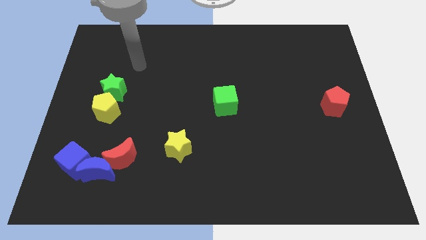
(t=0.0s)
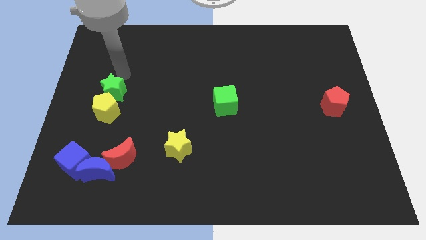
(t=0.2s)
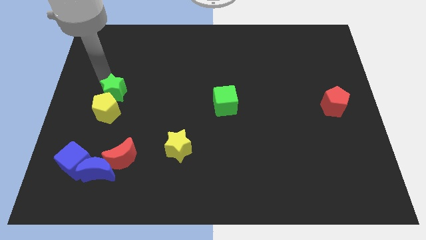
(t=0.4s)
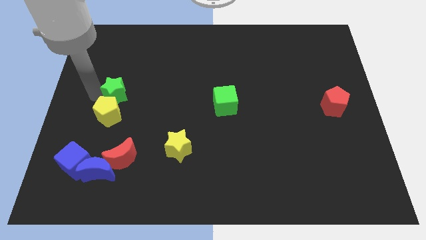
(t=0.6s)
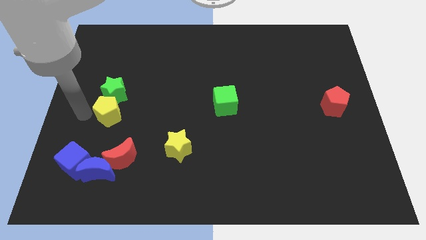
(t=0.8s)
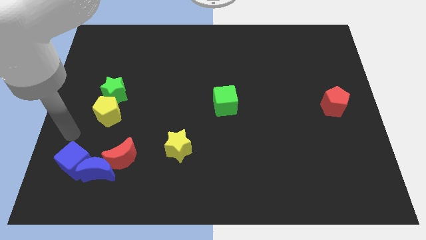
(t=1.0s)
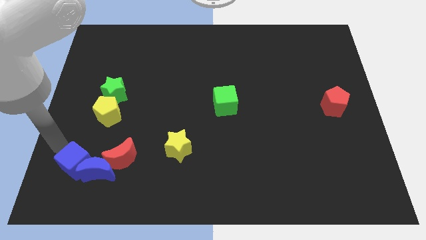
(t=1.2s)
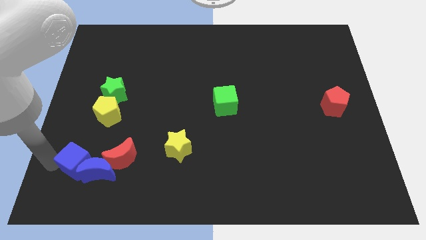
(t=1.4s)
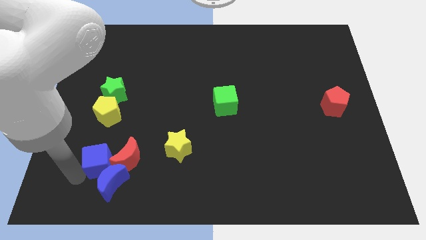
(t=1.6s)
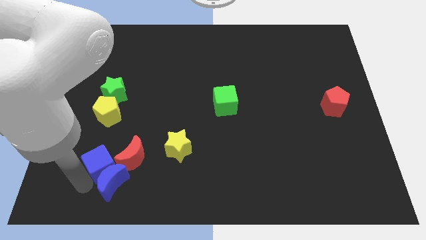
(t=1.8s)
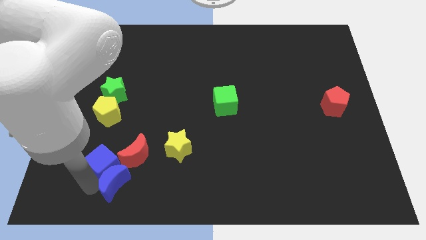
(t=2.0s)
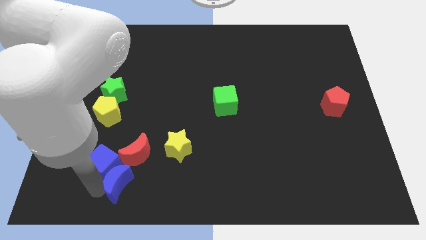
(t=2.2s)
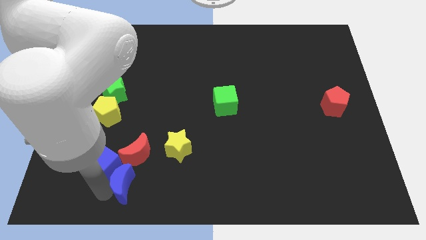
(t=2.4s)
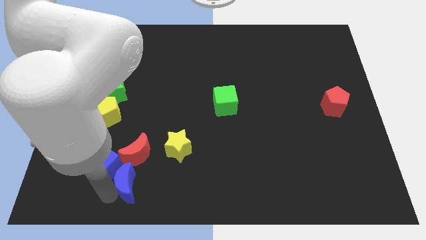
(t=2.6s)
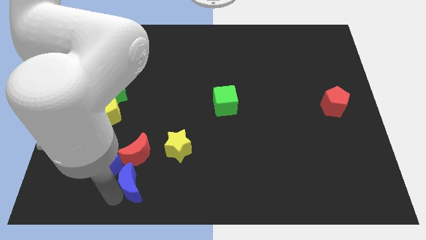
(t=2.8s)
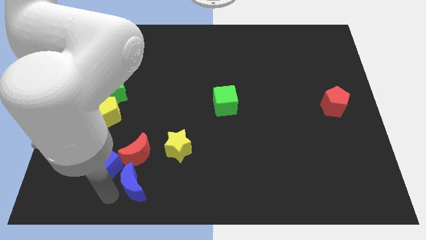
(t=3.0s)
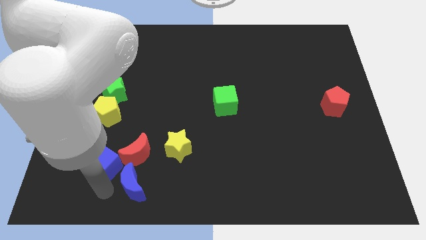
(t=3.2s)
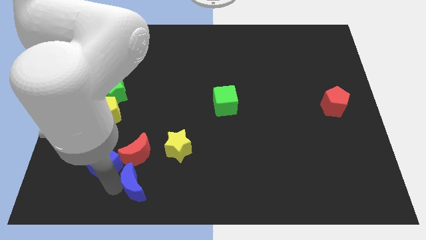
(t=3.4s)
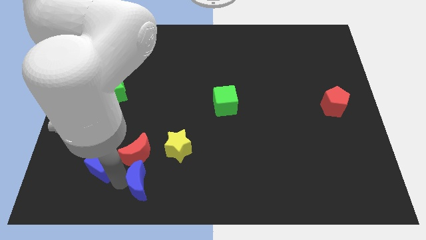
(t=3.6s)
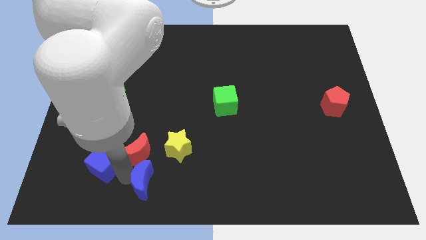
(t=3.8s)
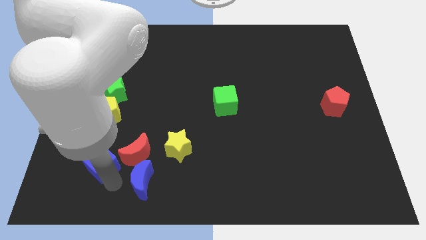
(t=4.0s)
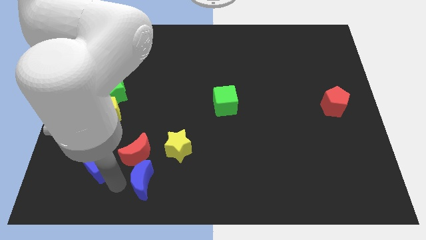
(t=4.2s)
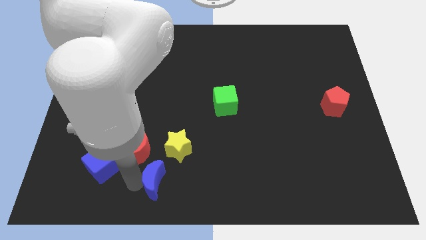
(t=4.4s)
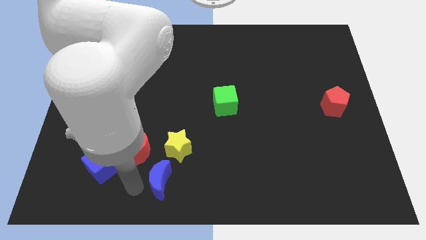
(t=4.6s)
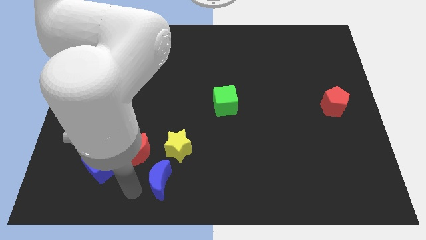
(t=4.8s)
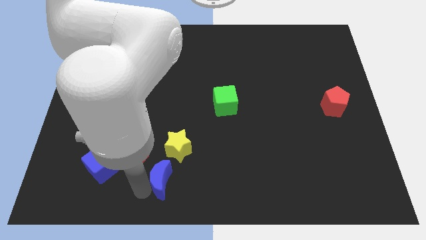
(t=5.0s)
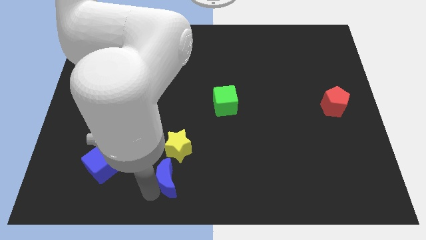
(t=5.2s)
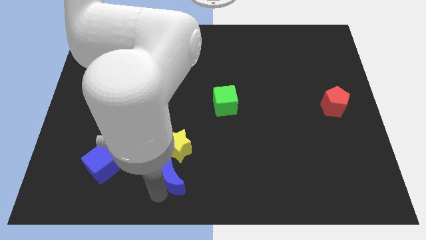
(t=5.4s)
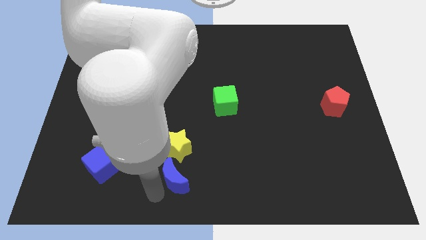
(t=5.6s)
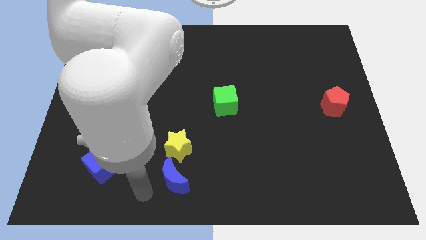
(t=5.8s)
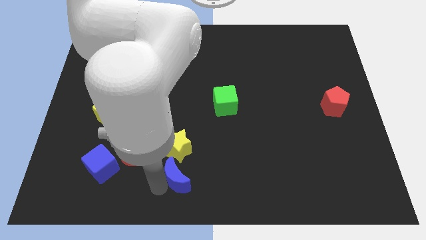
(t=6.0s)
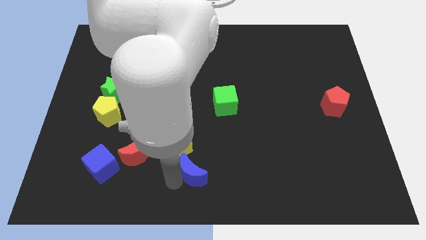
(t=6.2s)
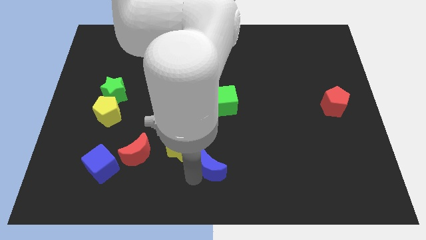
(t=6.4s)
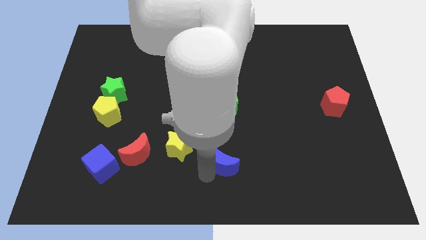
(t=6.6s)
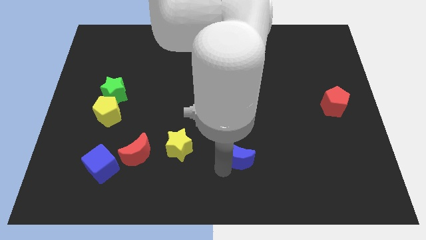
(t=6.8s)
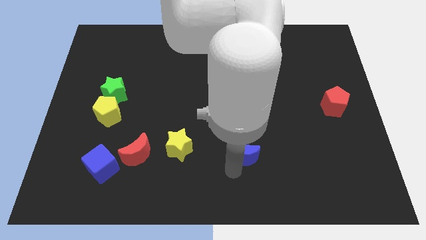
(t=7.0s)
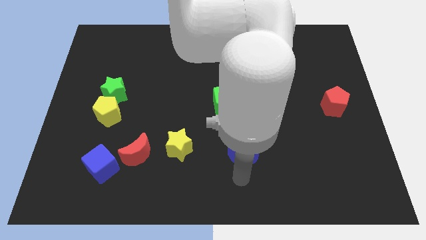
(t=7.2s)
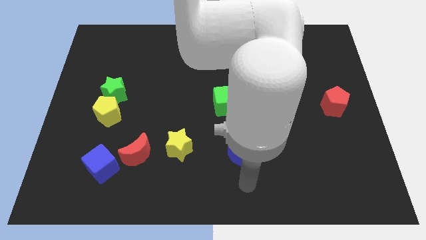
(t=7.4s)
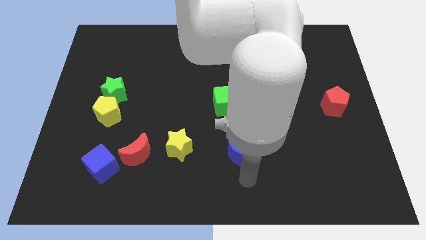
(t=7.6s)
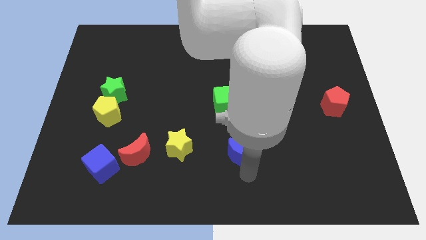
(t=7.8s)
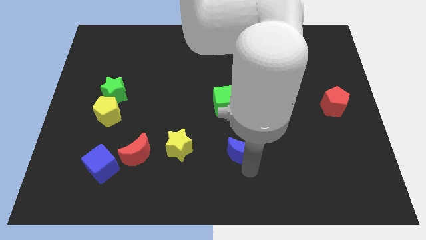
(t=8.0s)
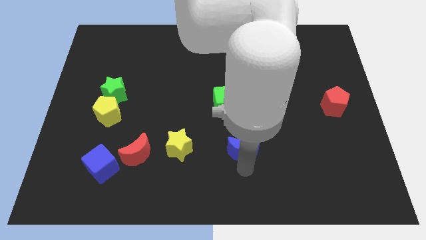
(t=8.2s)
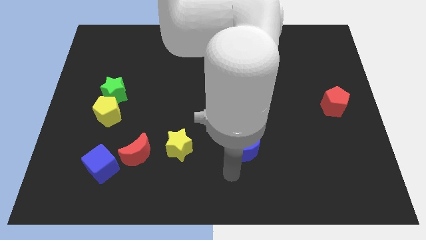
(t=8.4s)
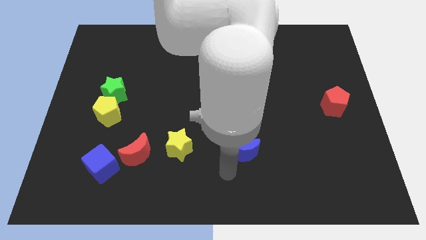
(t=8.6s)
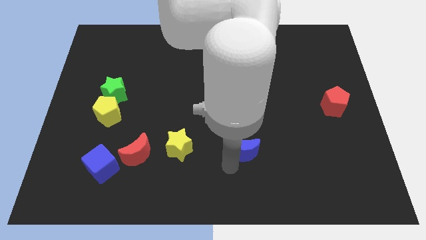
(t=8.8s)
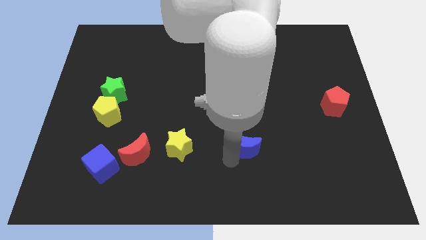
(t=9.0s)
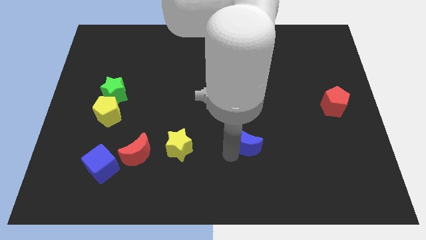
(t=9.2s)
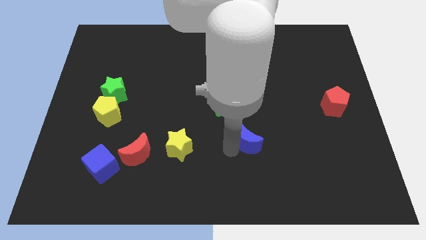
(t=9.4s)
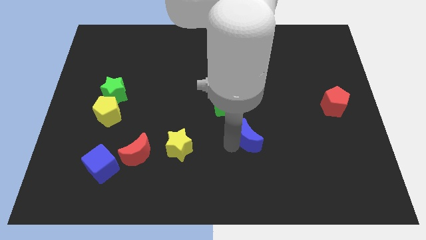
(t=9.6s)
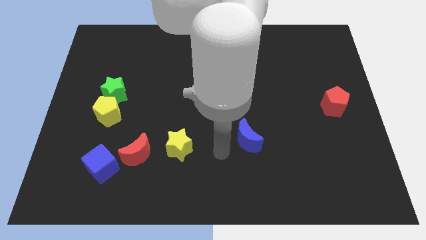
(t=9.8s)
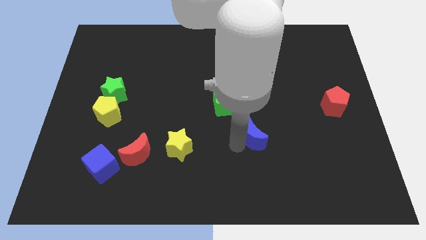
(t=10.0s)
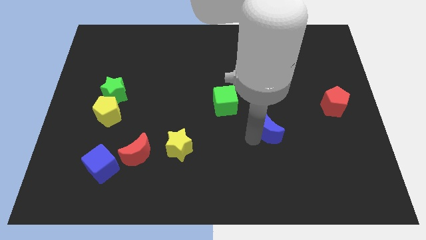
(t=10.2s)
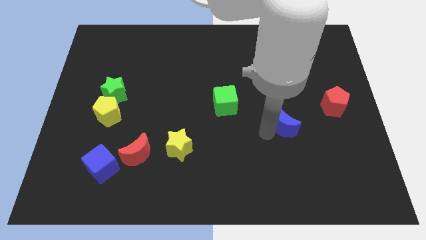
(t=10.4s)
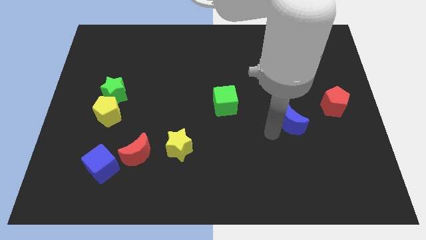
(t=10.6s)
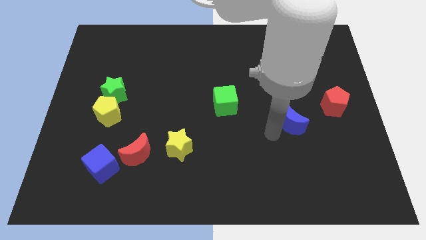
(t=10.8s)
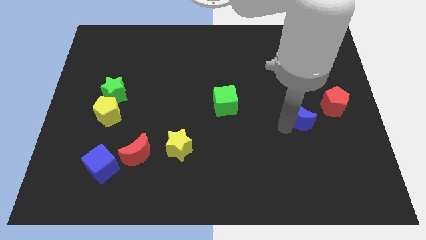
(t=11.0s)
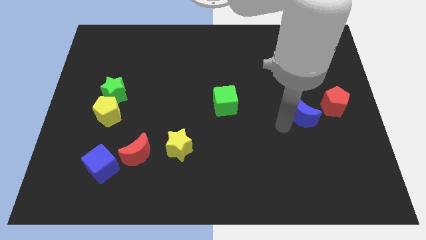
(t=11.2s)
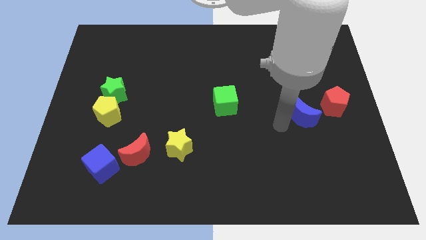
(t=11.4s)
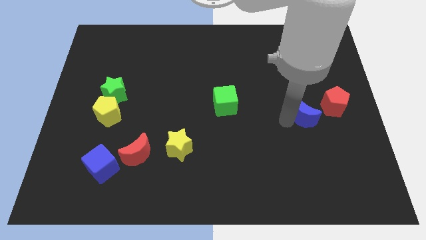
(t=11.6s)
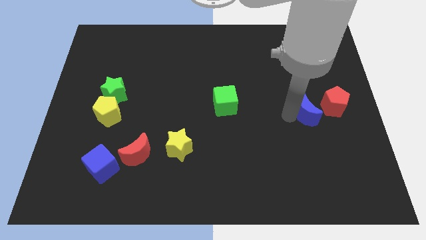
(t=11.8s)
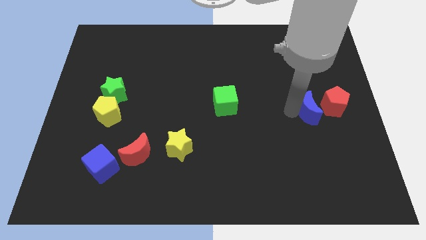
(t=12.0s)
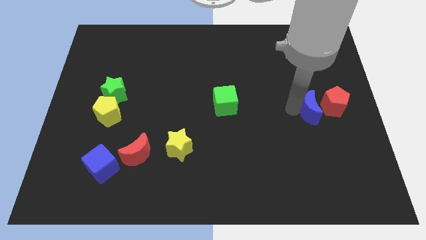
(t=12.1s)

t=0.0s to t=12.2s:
move the blue moon towards the red pentagon

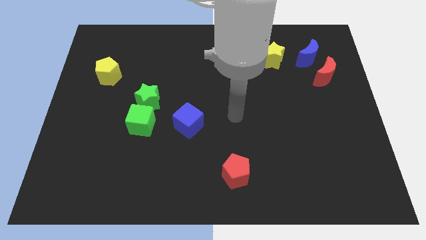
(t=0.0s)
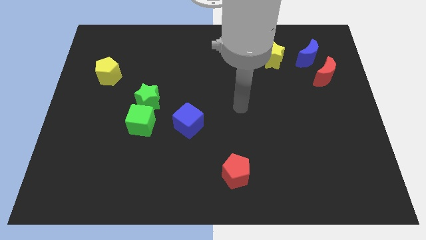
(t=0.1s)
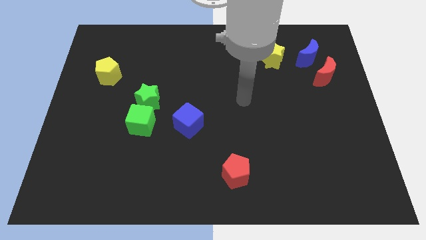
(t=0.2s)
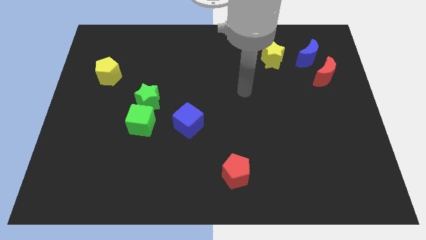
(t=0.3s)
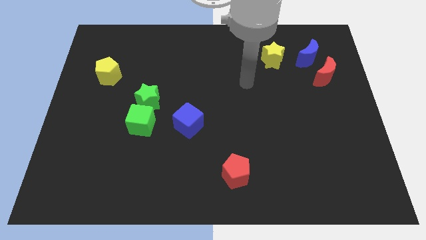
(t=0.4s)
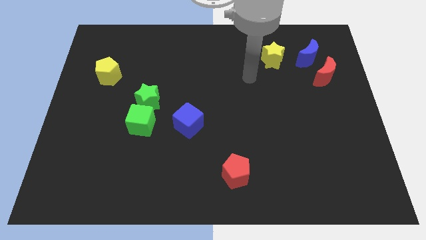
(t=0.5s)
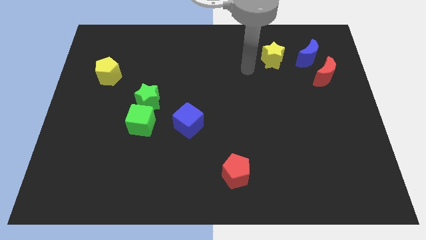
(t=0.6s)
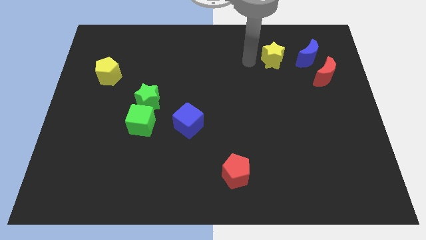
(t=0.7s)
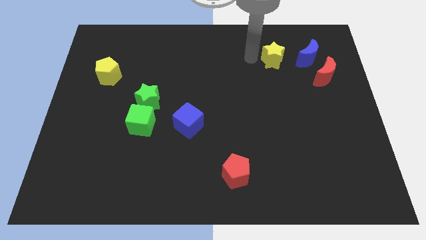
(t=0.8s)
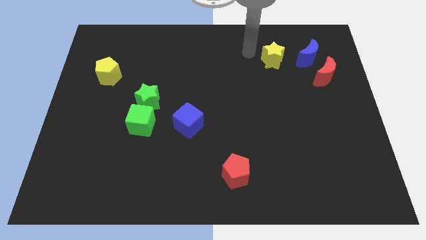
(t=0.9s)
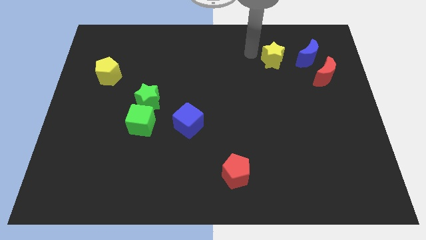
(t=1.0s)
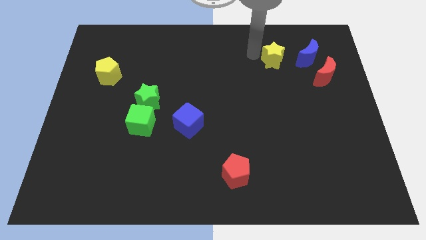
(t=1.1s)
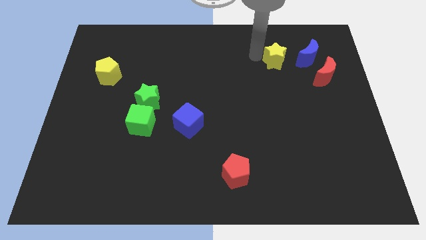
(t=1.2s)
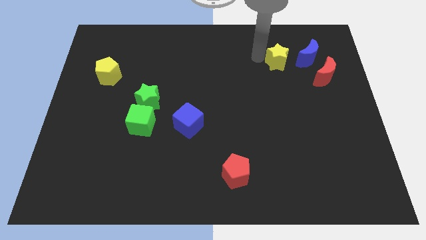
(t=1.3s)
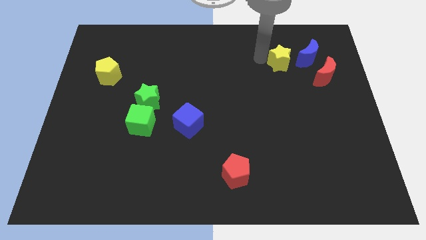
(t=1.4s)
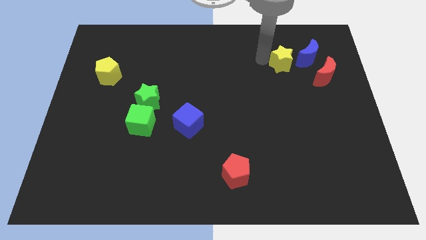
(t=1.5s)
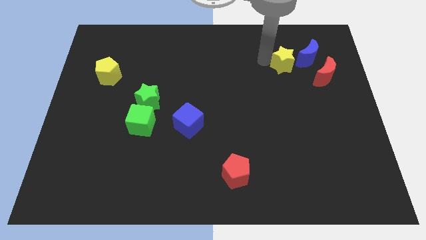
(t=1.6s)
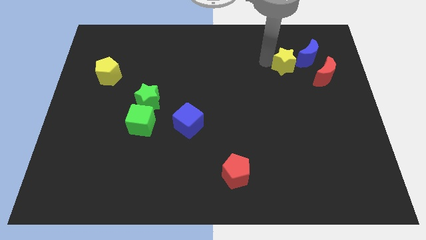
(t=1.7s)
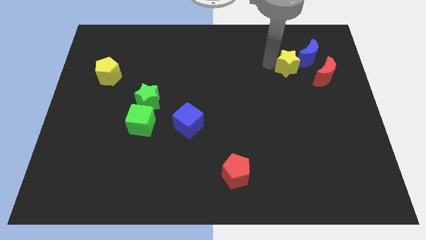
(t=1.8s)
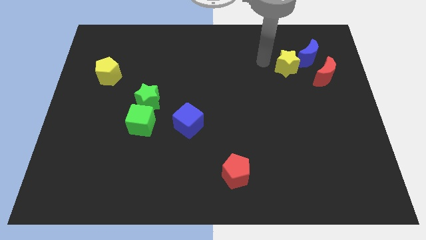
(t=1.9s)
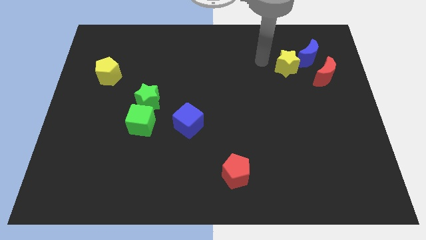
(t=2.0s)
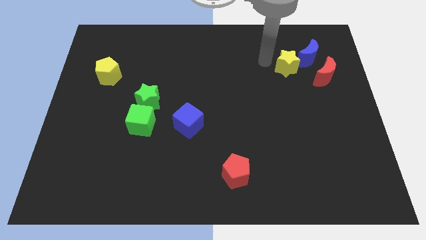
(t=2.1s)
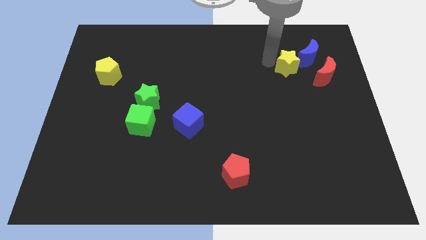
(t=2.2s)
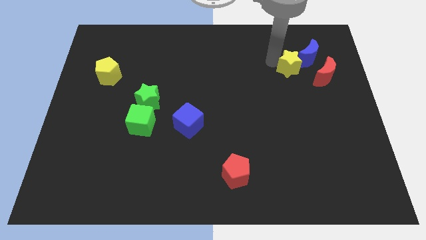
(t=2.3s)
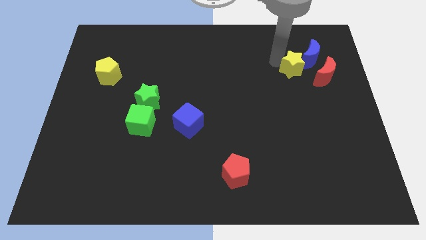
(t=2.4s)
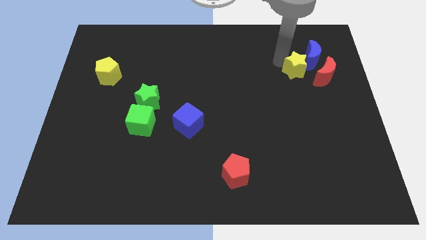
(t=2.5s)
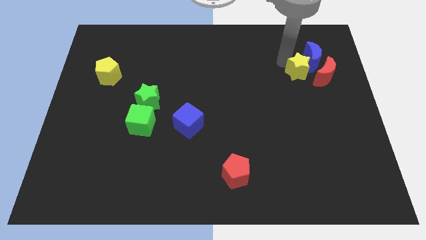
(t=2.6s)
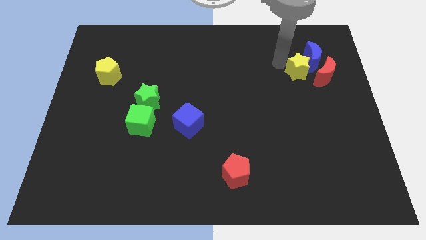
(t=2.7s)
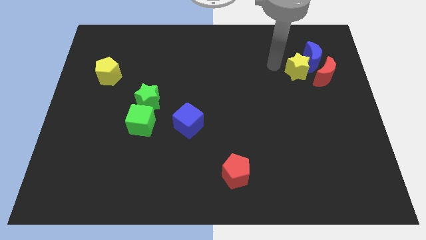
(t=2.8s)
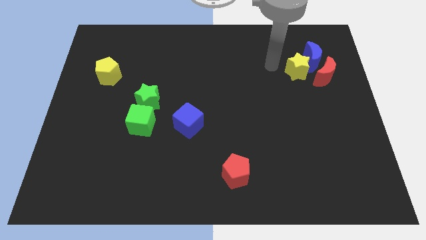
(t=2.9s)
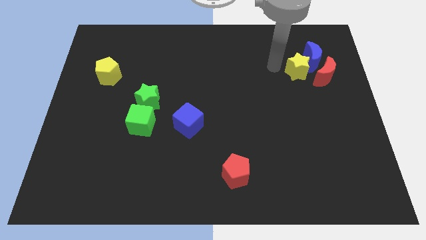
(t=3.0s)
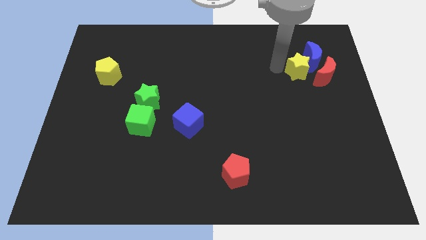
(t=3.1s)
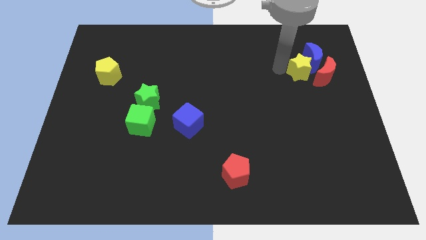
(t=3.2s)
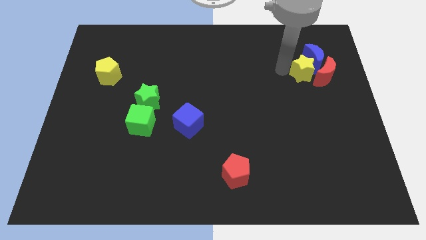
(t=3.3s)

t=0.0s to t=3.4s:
slide the yellow star towards the red moon
